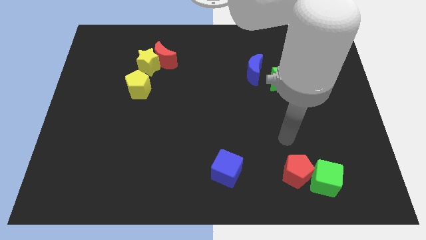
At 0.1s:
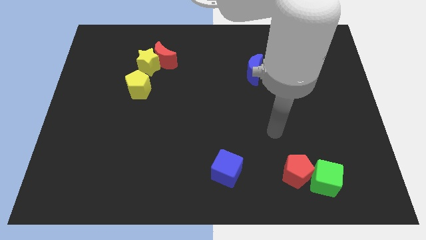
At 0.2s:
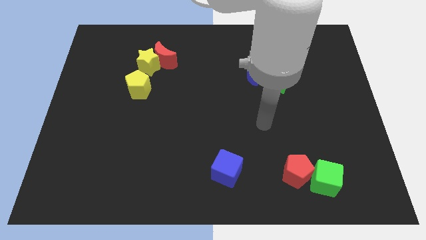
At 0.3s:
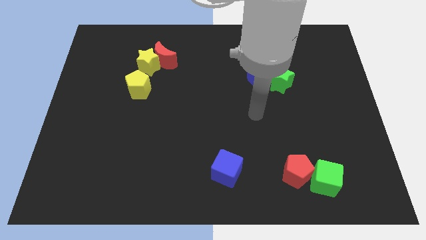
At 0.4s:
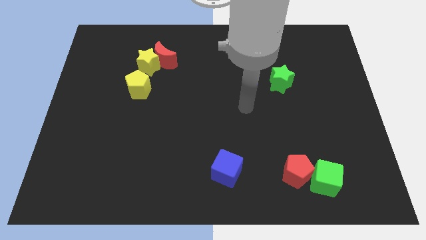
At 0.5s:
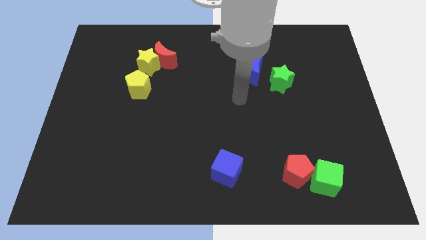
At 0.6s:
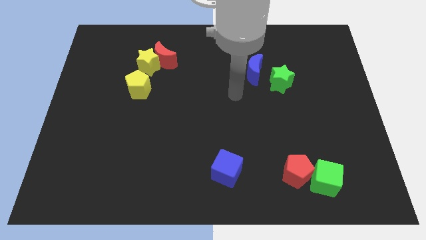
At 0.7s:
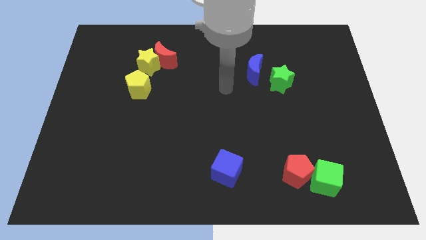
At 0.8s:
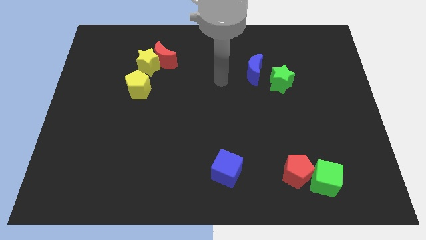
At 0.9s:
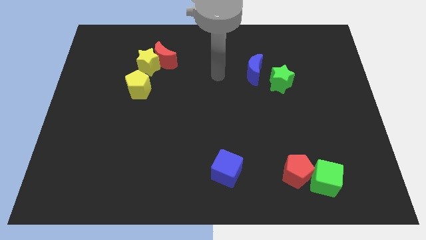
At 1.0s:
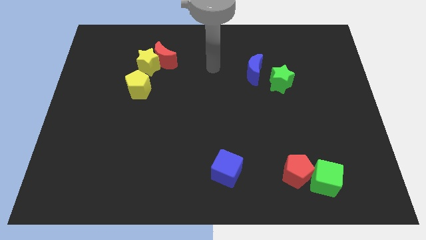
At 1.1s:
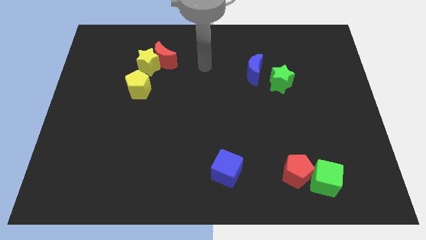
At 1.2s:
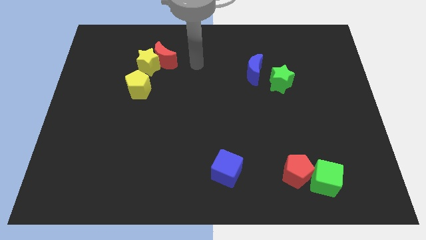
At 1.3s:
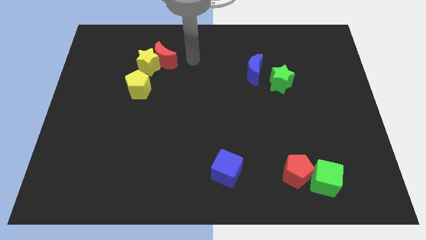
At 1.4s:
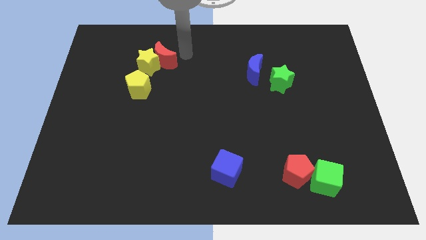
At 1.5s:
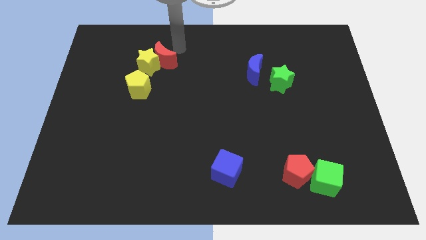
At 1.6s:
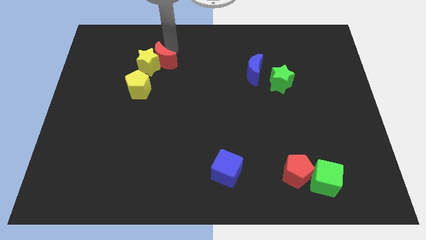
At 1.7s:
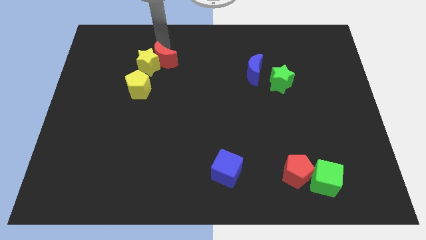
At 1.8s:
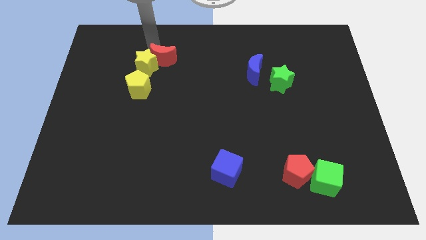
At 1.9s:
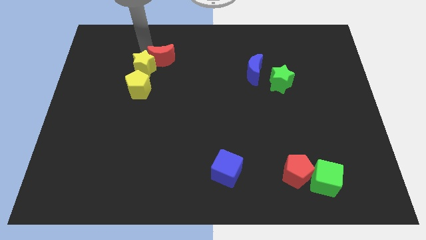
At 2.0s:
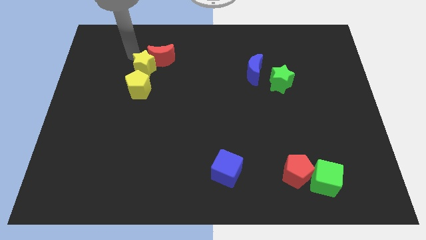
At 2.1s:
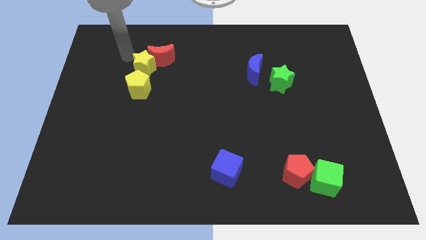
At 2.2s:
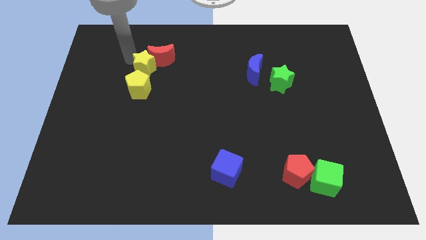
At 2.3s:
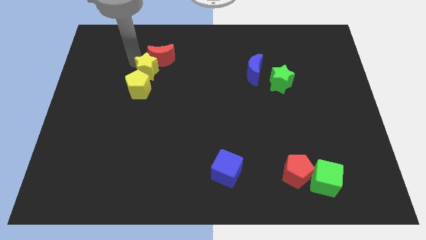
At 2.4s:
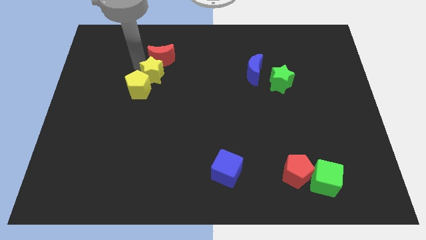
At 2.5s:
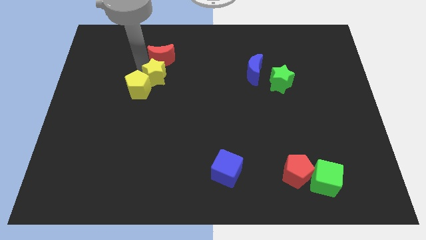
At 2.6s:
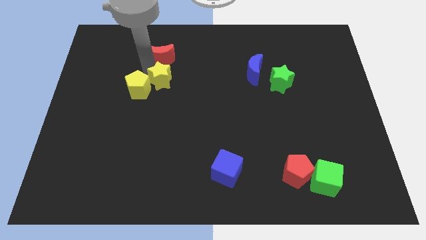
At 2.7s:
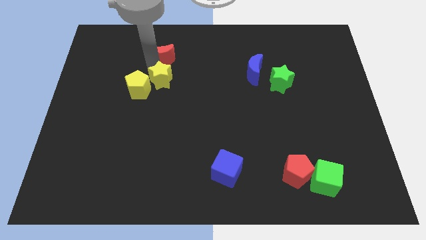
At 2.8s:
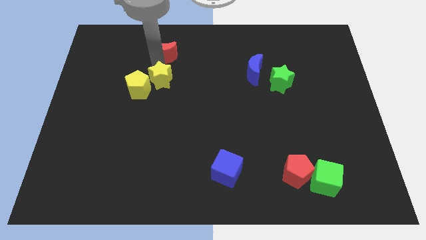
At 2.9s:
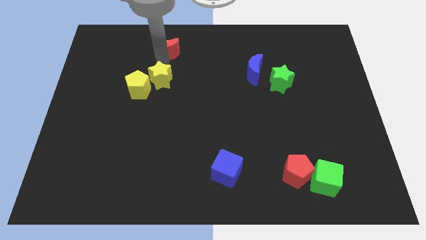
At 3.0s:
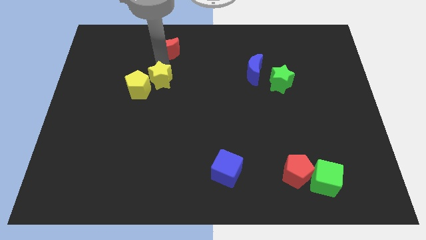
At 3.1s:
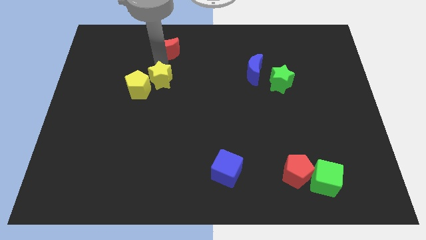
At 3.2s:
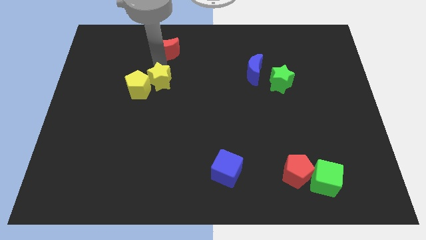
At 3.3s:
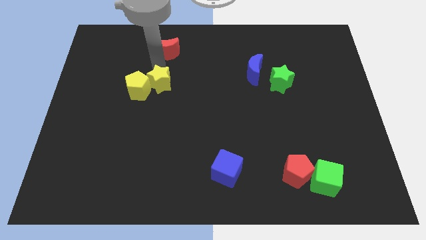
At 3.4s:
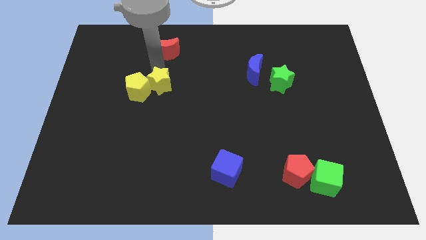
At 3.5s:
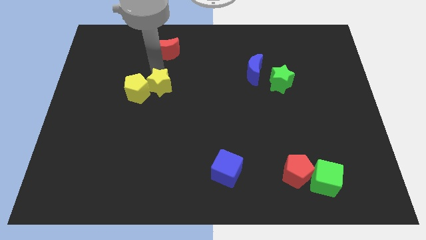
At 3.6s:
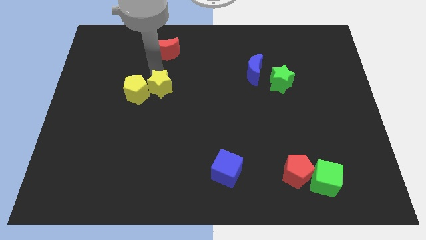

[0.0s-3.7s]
slightly push the yellow star down

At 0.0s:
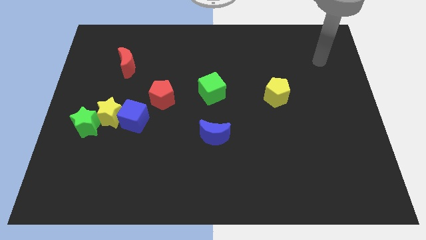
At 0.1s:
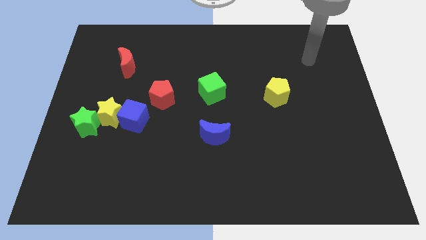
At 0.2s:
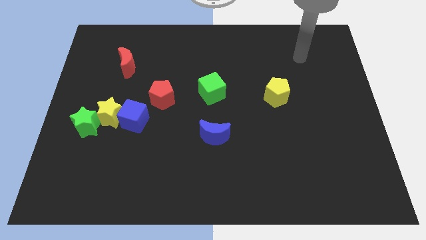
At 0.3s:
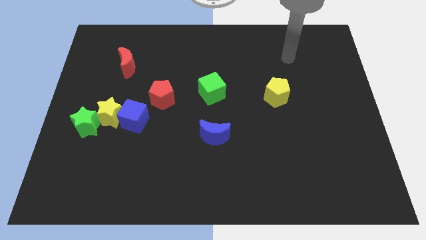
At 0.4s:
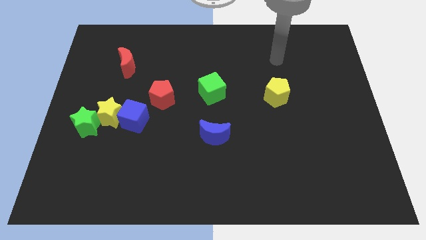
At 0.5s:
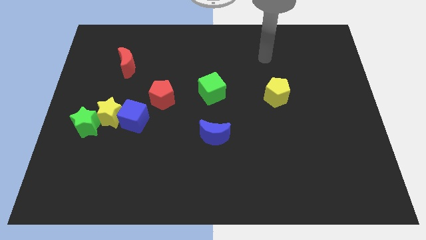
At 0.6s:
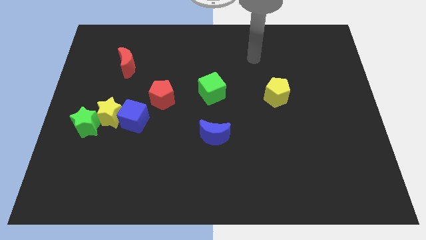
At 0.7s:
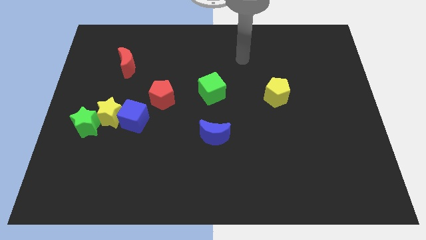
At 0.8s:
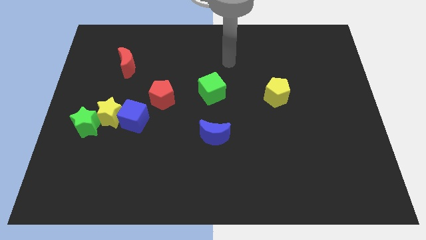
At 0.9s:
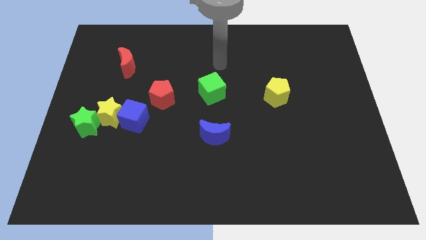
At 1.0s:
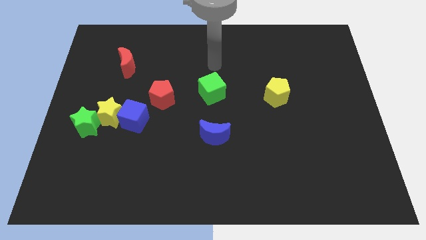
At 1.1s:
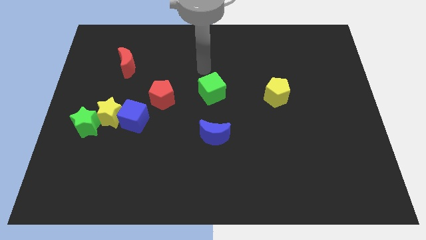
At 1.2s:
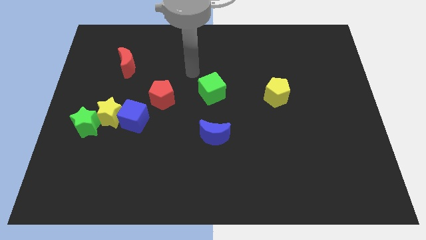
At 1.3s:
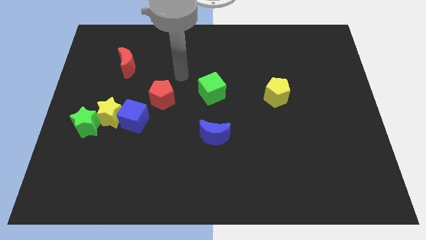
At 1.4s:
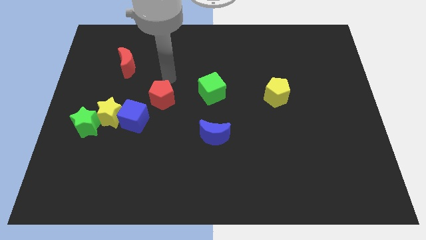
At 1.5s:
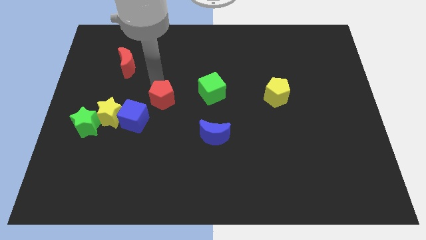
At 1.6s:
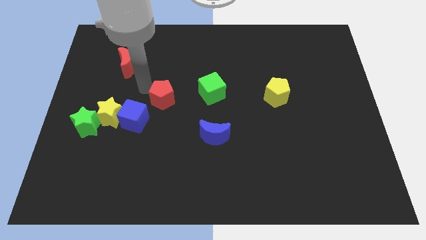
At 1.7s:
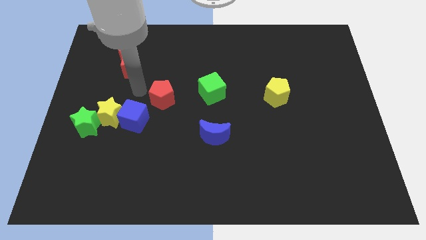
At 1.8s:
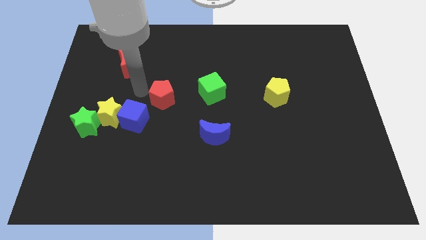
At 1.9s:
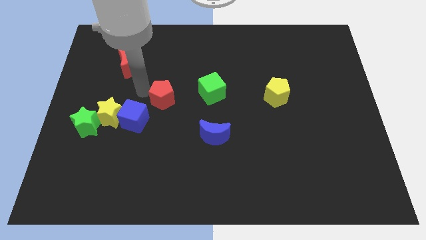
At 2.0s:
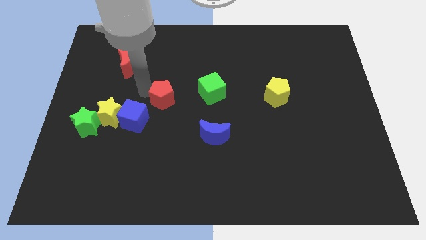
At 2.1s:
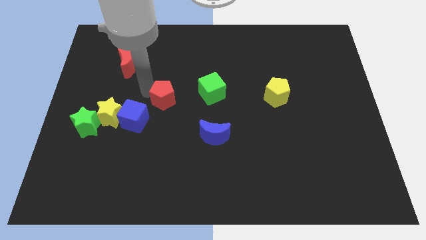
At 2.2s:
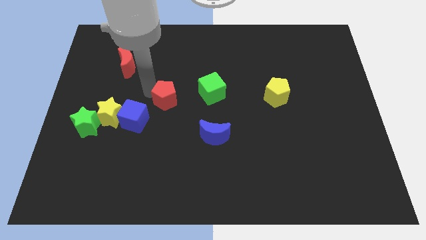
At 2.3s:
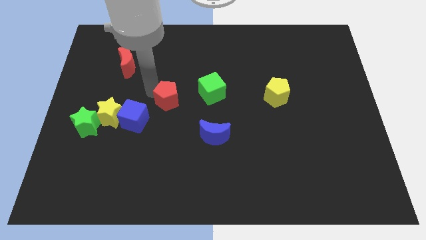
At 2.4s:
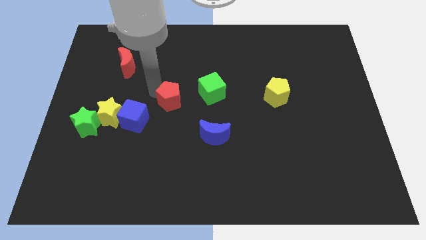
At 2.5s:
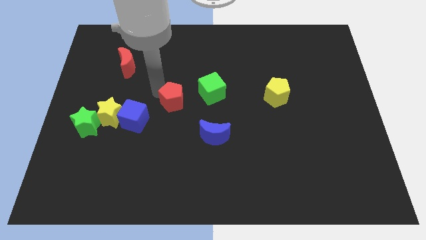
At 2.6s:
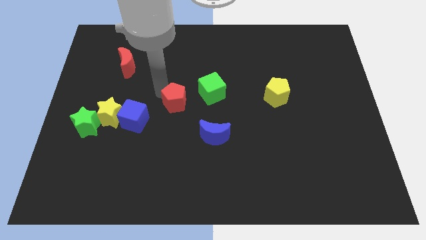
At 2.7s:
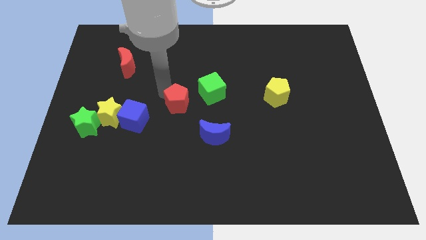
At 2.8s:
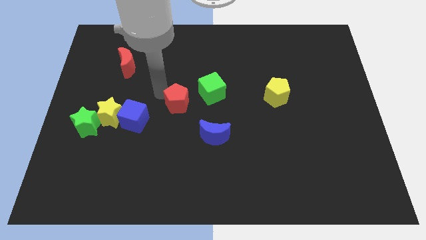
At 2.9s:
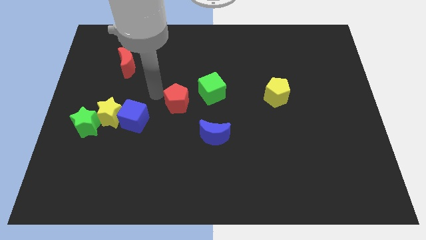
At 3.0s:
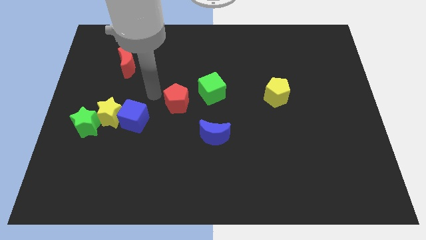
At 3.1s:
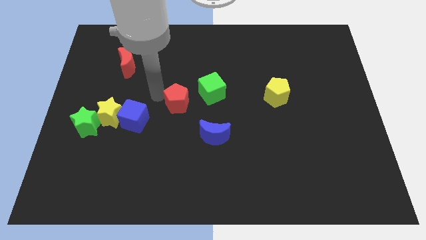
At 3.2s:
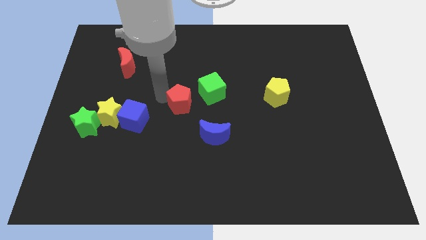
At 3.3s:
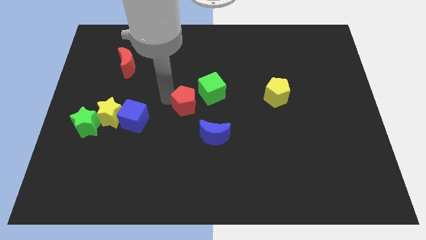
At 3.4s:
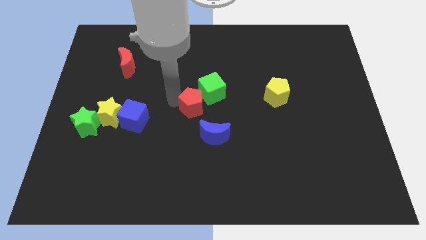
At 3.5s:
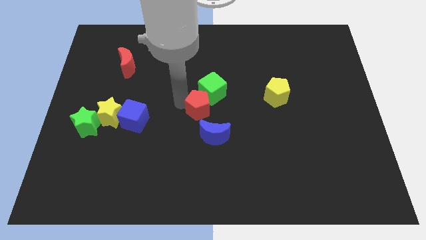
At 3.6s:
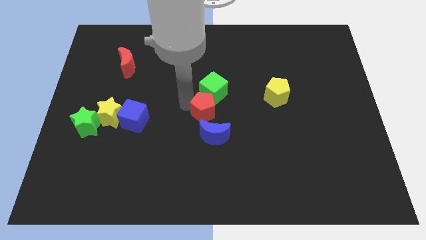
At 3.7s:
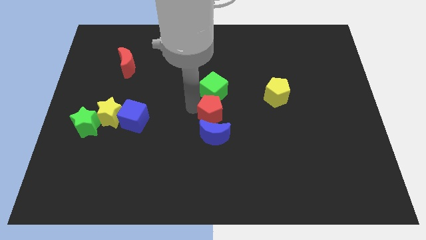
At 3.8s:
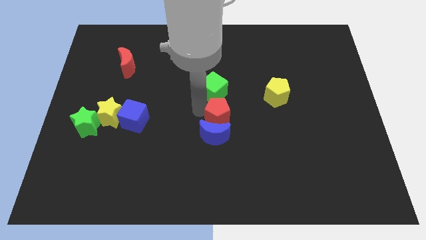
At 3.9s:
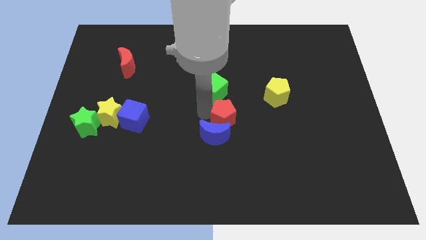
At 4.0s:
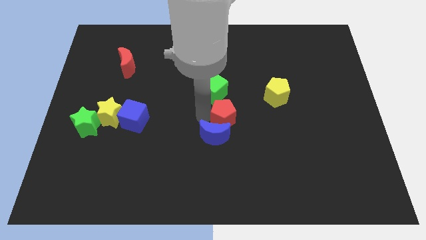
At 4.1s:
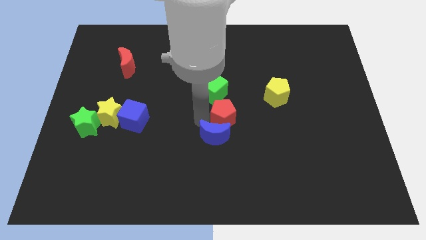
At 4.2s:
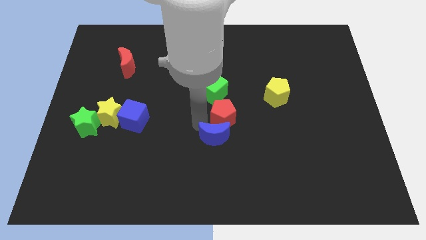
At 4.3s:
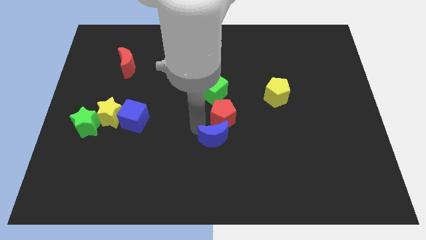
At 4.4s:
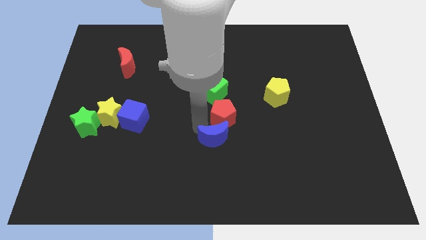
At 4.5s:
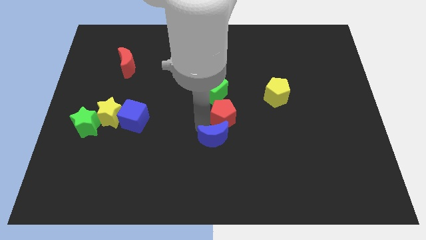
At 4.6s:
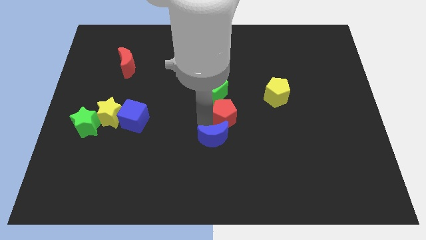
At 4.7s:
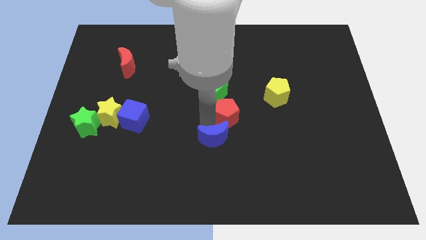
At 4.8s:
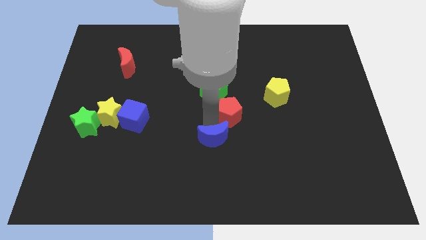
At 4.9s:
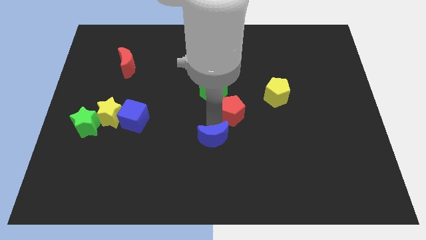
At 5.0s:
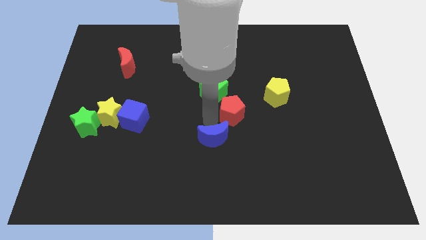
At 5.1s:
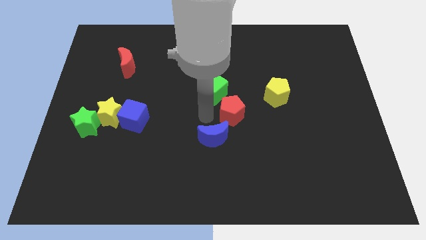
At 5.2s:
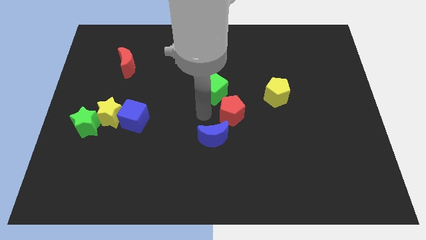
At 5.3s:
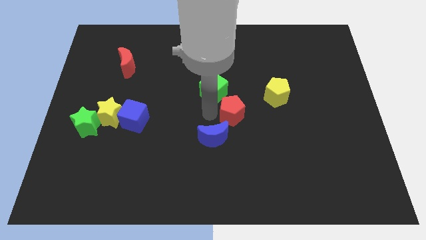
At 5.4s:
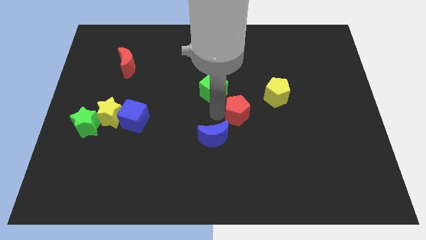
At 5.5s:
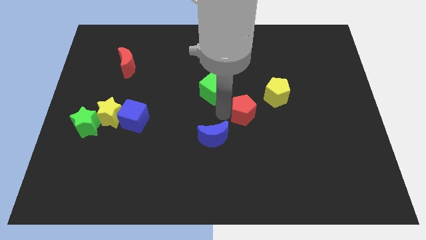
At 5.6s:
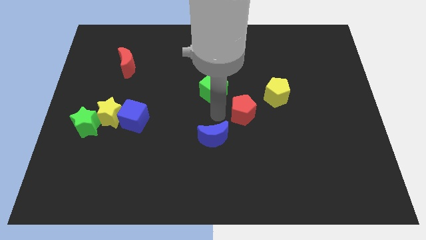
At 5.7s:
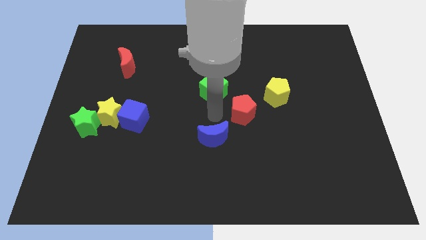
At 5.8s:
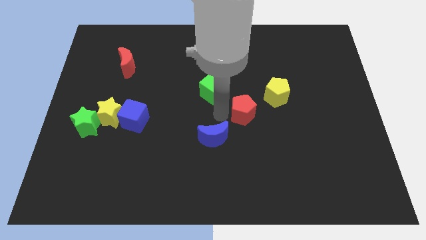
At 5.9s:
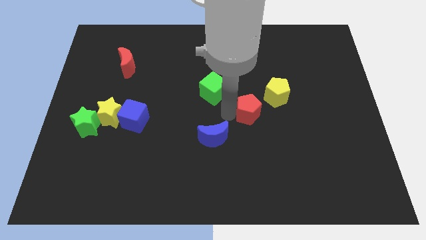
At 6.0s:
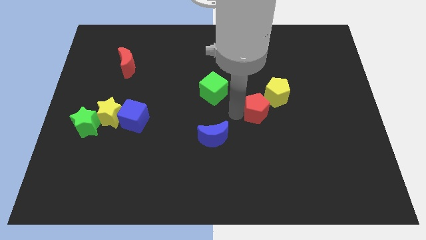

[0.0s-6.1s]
push the red pentagon to the right
